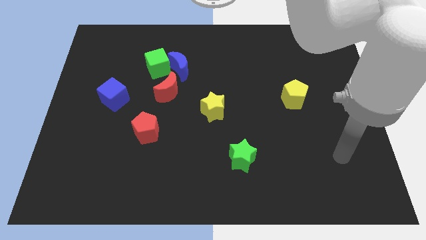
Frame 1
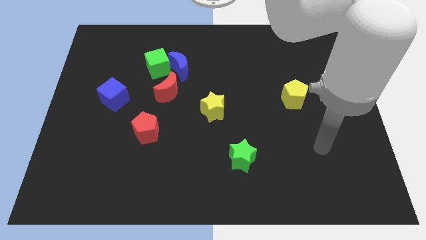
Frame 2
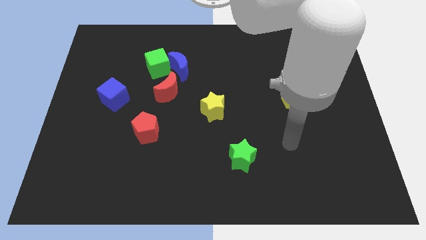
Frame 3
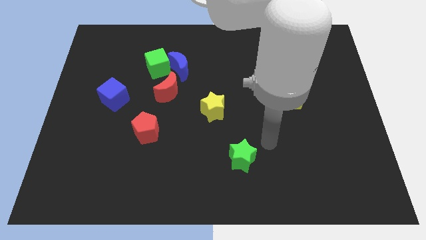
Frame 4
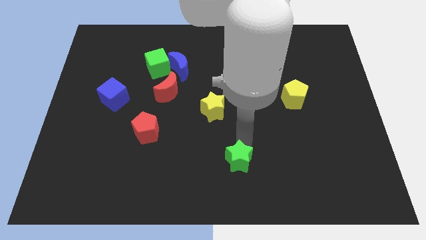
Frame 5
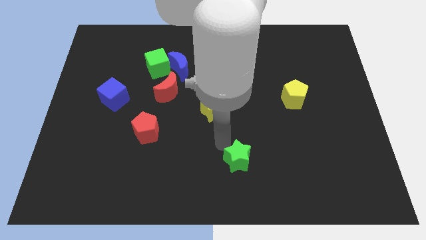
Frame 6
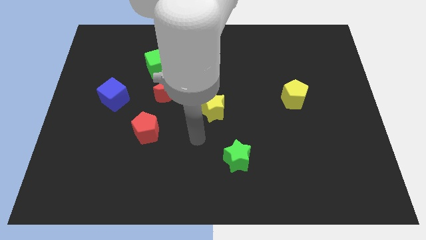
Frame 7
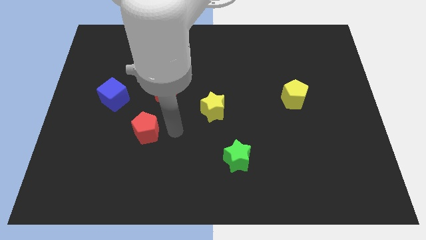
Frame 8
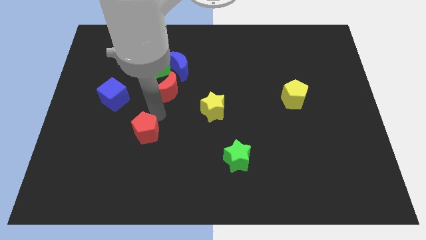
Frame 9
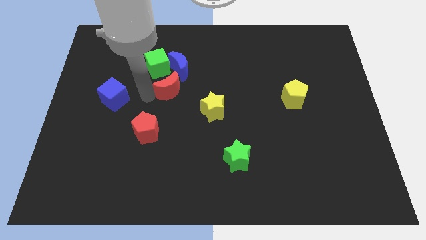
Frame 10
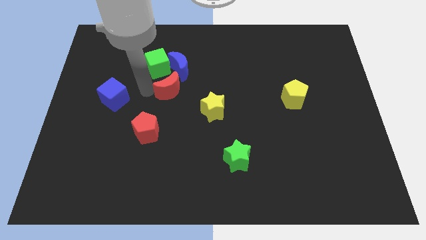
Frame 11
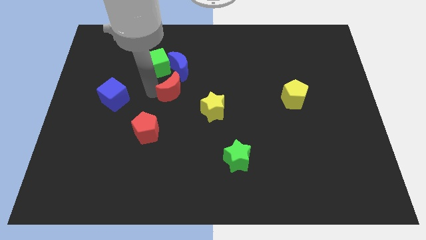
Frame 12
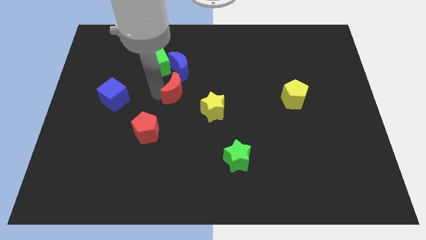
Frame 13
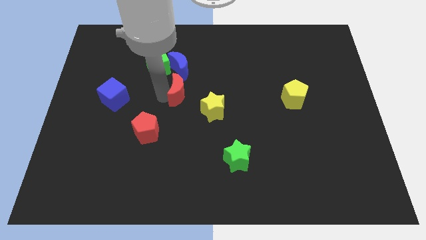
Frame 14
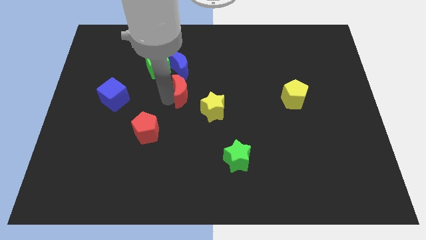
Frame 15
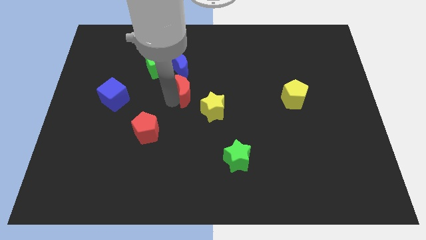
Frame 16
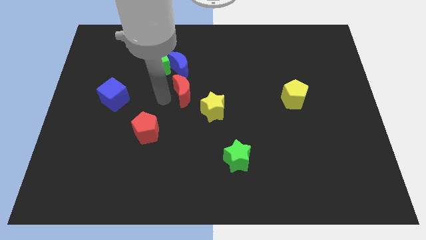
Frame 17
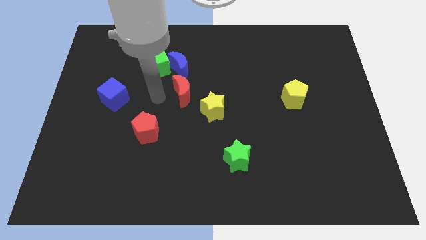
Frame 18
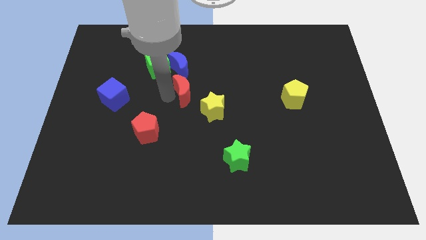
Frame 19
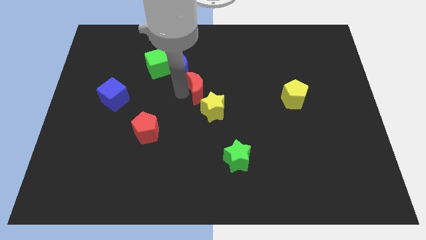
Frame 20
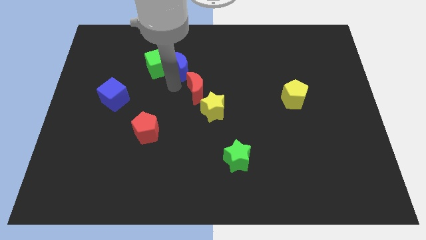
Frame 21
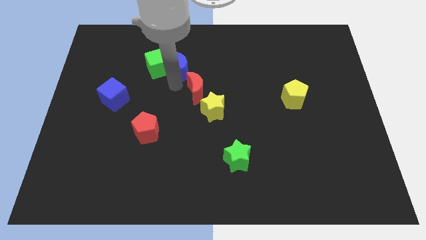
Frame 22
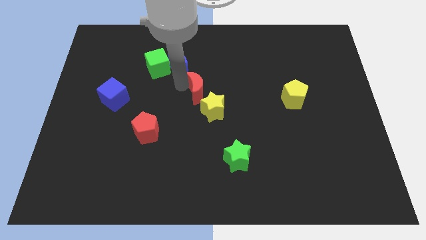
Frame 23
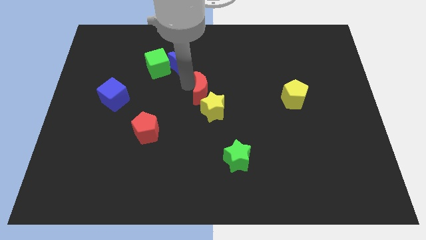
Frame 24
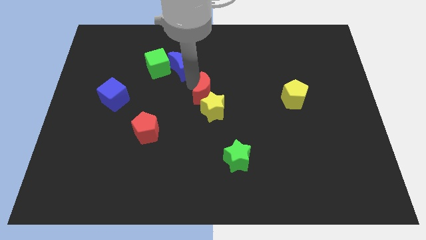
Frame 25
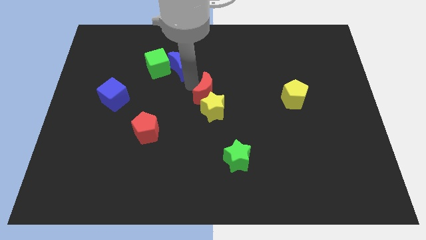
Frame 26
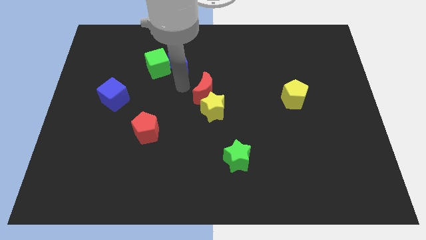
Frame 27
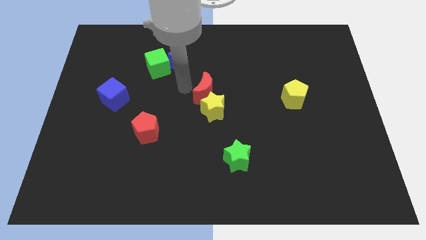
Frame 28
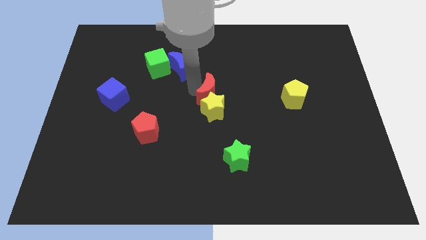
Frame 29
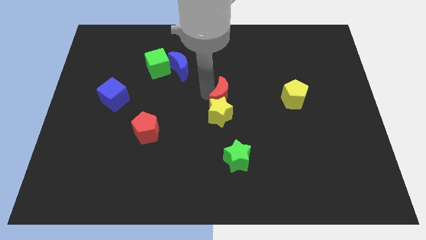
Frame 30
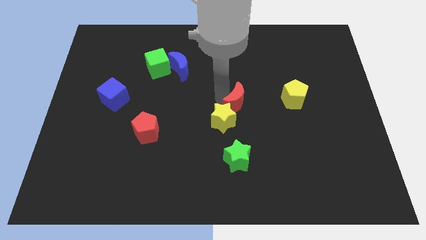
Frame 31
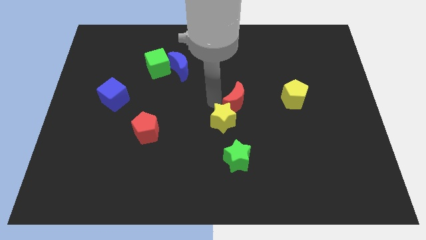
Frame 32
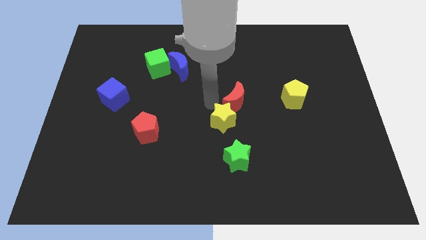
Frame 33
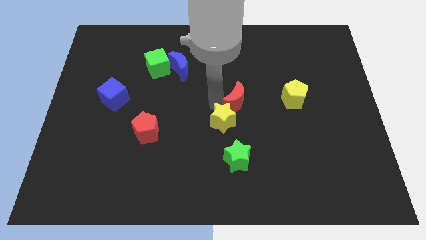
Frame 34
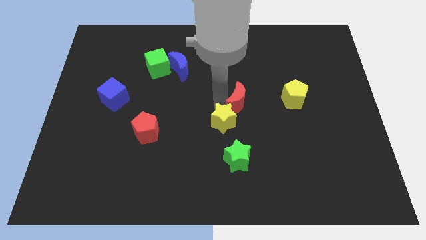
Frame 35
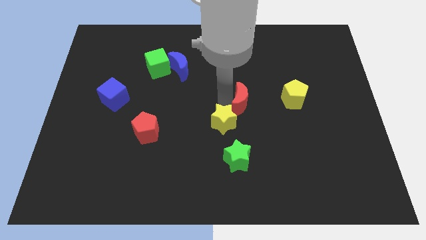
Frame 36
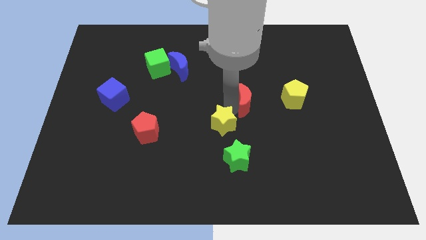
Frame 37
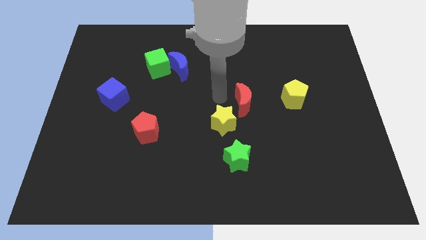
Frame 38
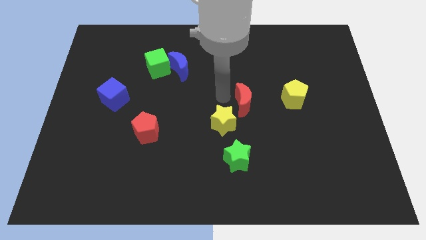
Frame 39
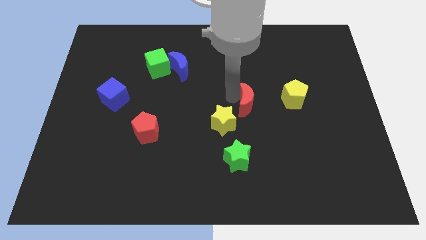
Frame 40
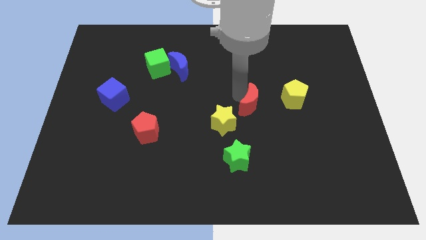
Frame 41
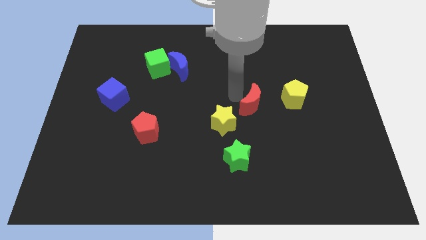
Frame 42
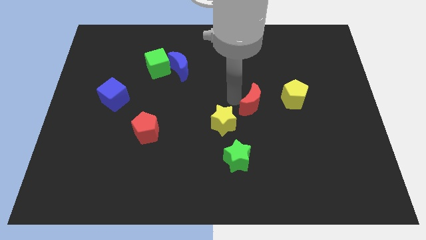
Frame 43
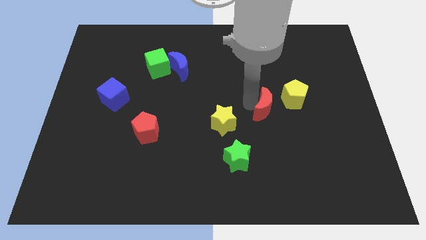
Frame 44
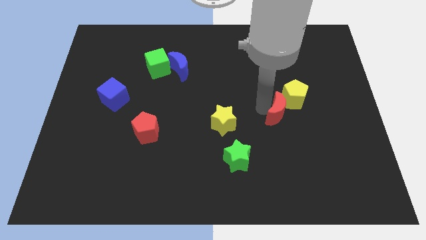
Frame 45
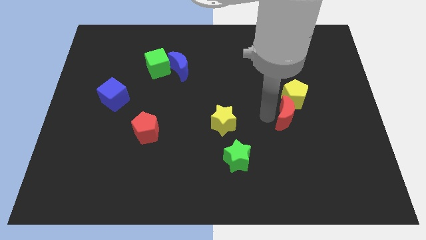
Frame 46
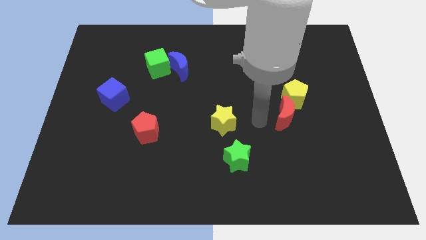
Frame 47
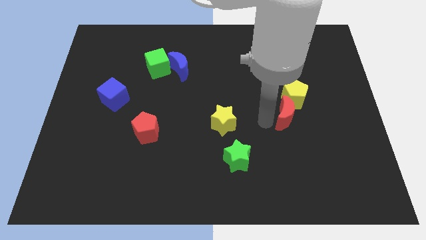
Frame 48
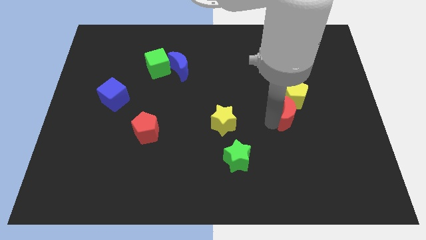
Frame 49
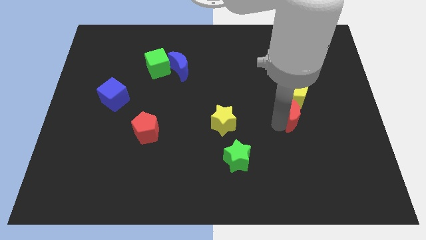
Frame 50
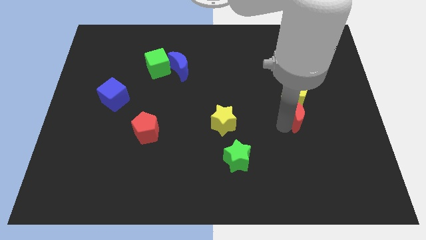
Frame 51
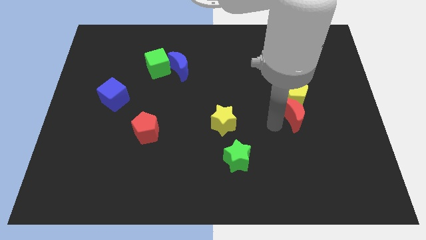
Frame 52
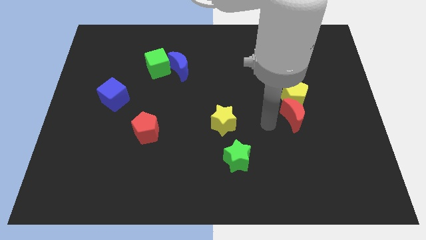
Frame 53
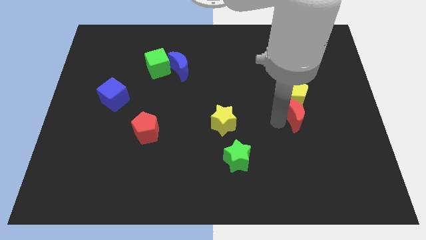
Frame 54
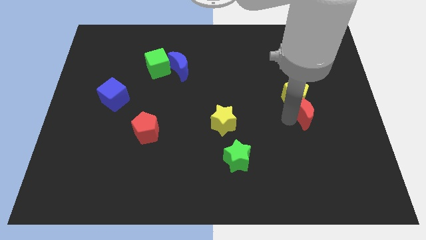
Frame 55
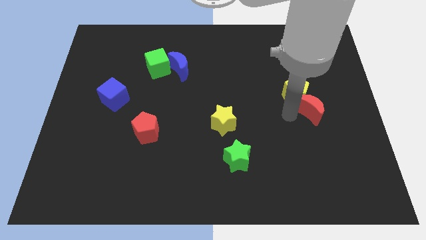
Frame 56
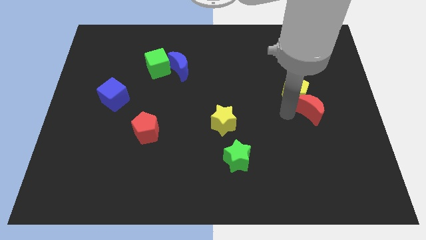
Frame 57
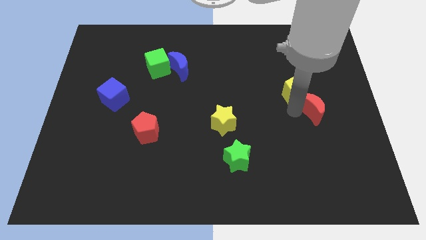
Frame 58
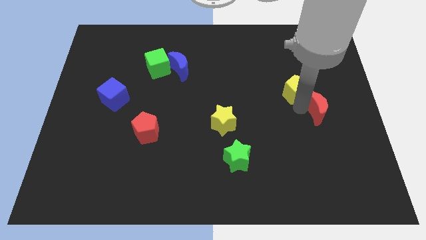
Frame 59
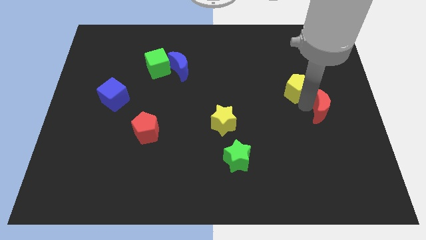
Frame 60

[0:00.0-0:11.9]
slide the red moon to the right side of the board

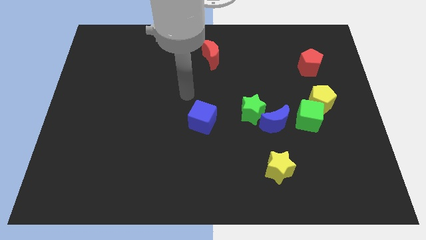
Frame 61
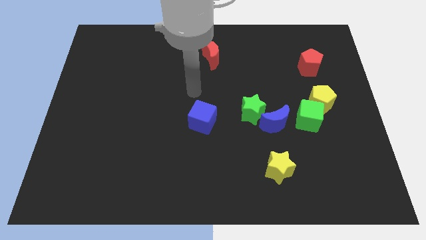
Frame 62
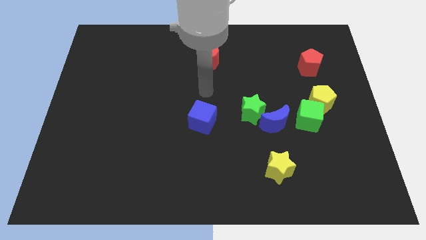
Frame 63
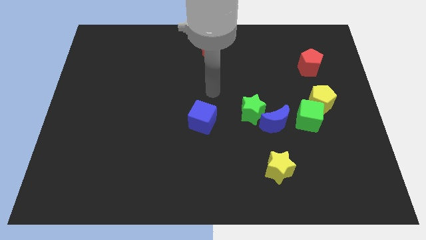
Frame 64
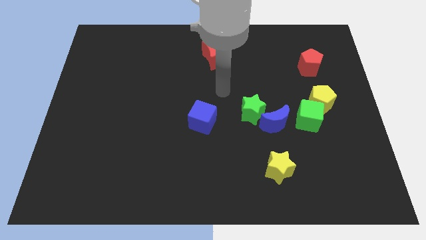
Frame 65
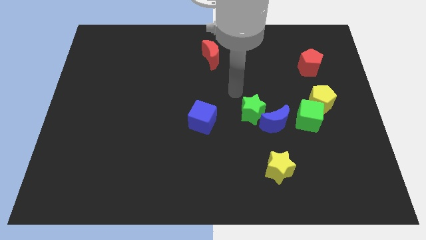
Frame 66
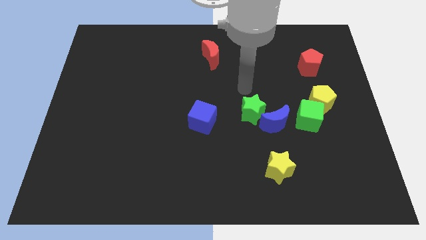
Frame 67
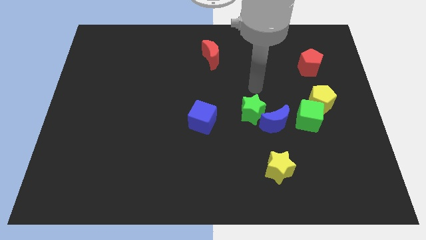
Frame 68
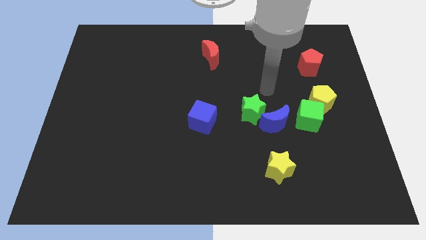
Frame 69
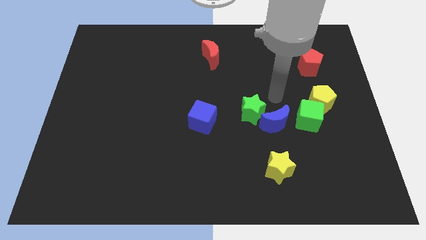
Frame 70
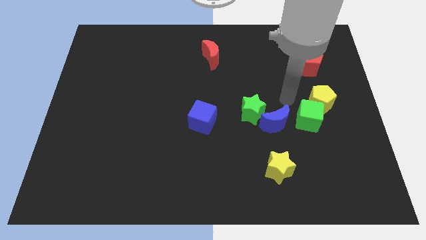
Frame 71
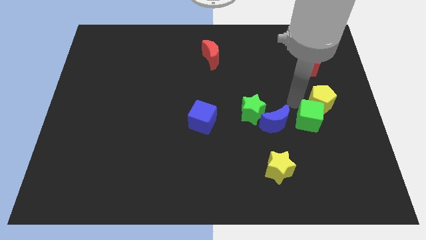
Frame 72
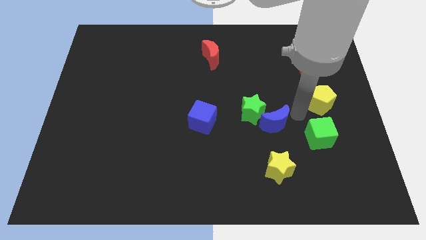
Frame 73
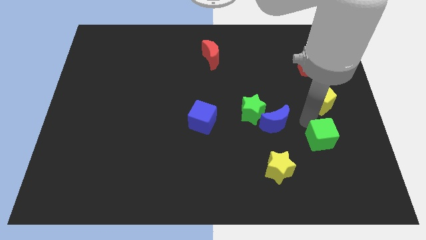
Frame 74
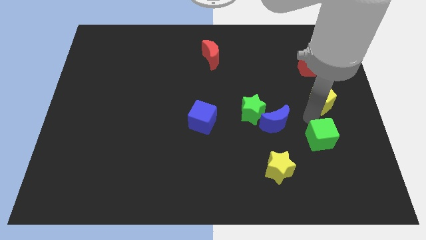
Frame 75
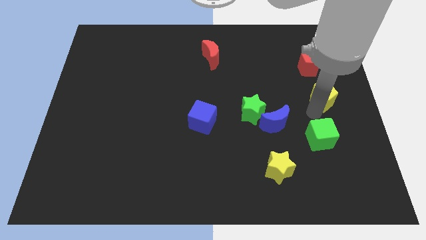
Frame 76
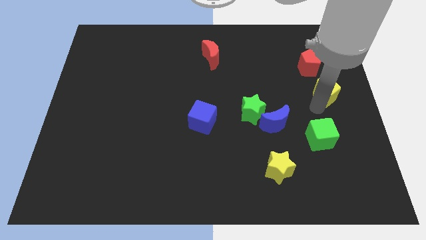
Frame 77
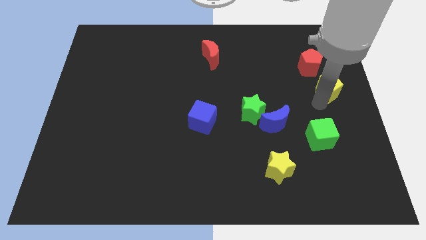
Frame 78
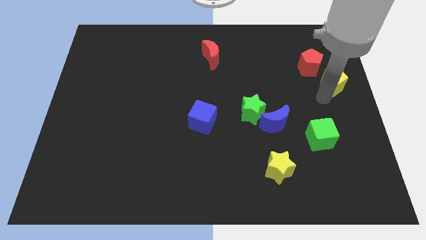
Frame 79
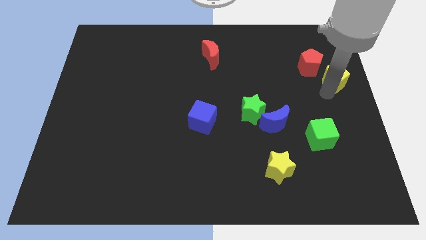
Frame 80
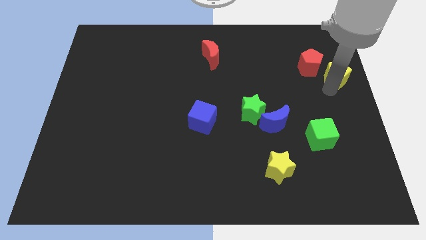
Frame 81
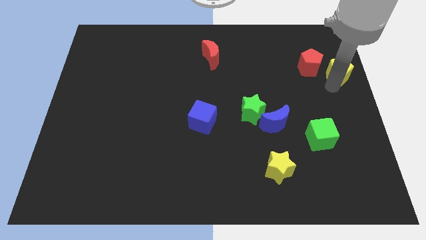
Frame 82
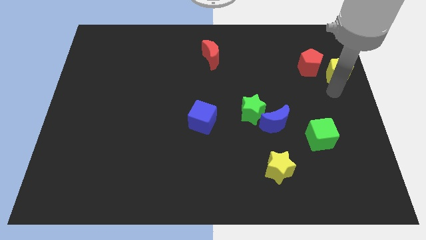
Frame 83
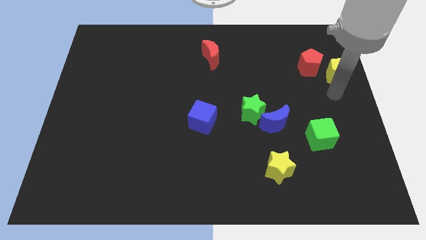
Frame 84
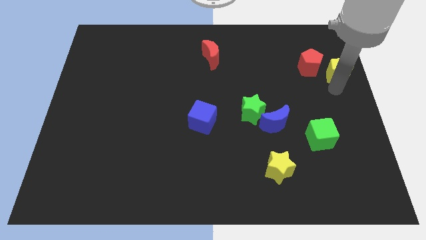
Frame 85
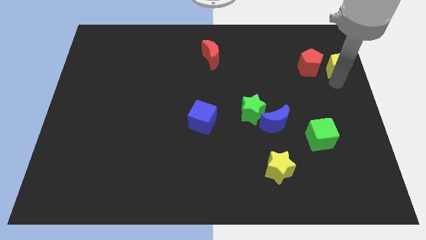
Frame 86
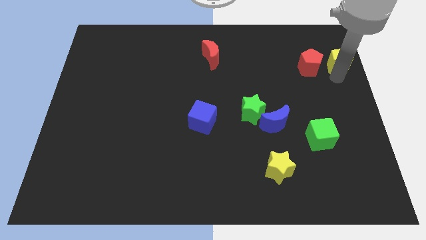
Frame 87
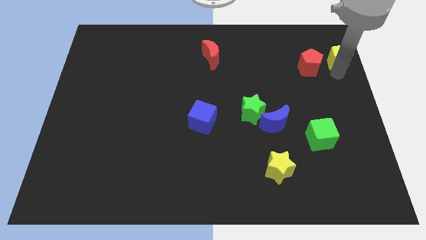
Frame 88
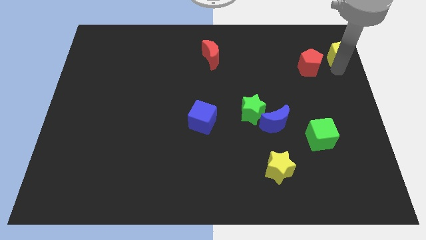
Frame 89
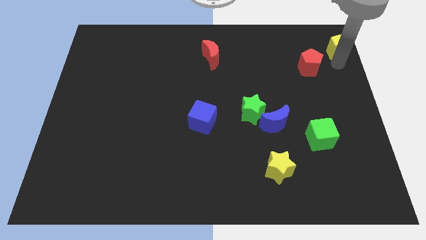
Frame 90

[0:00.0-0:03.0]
push the yellow pentagon to the top right
